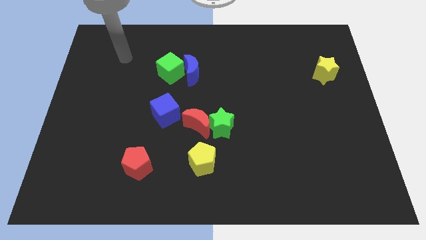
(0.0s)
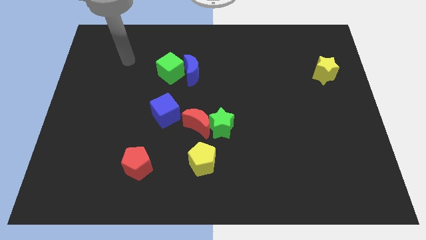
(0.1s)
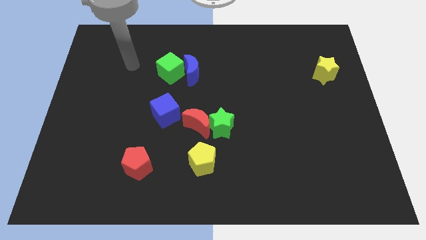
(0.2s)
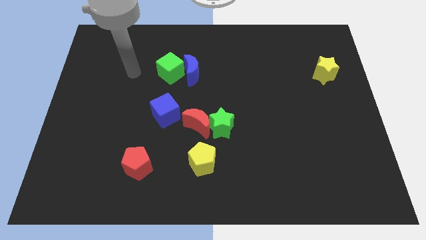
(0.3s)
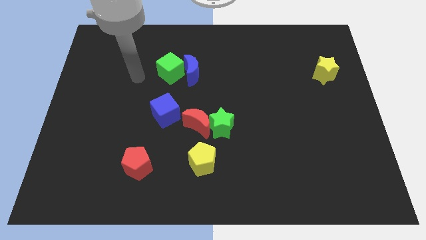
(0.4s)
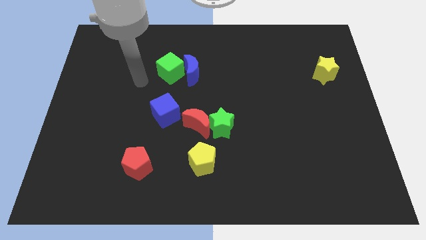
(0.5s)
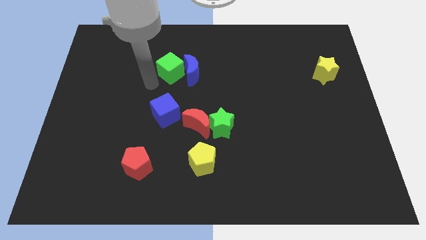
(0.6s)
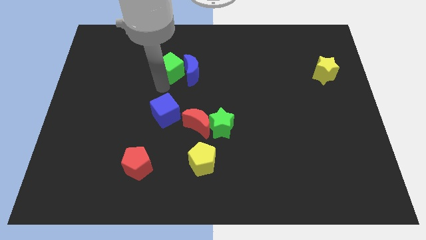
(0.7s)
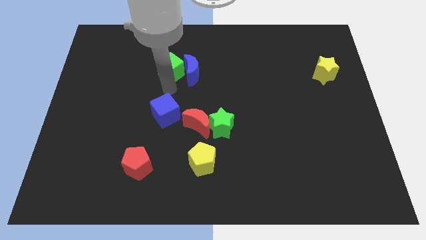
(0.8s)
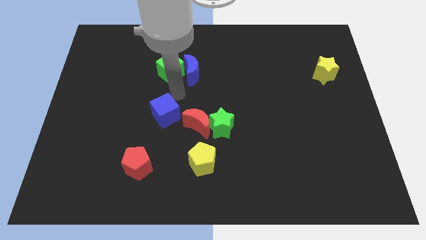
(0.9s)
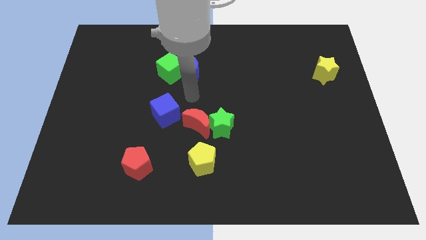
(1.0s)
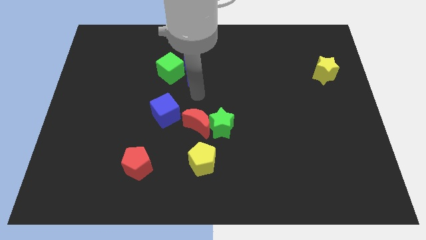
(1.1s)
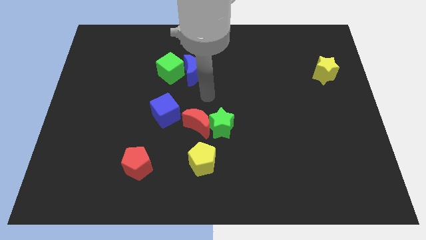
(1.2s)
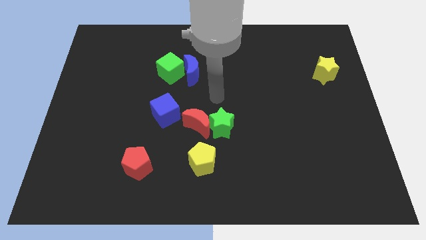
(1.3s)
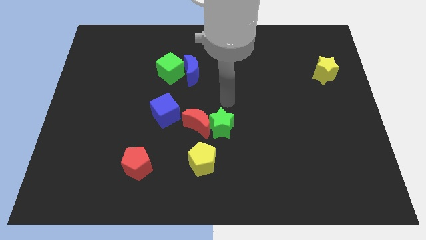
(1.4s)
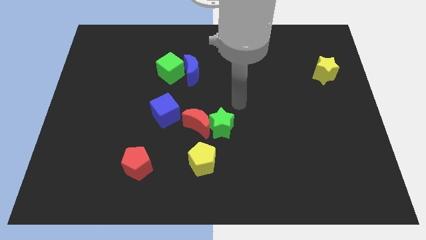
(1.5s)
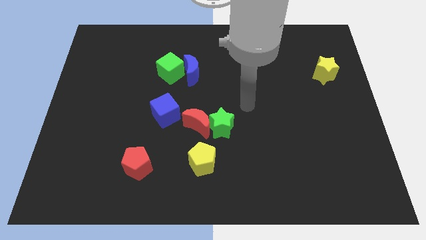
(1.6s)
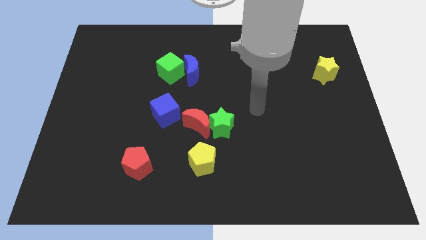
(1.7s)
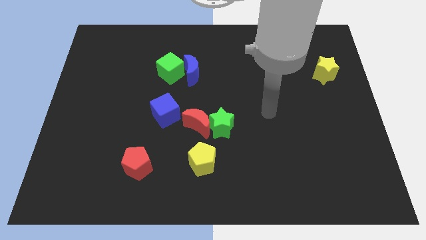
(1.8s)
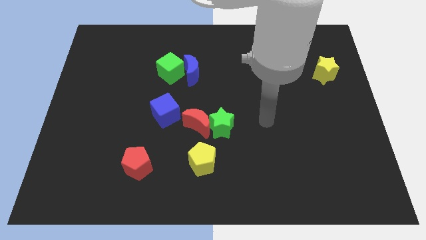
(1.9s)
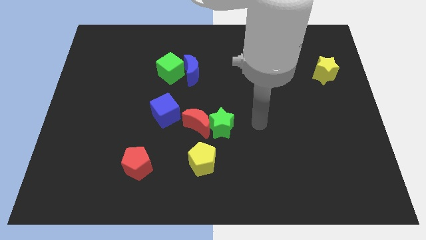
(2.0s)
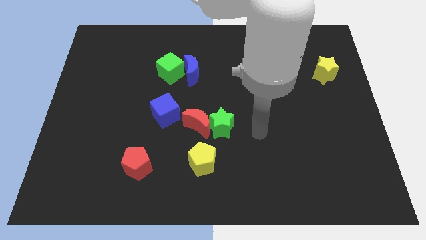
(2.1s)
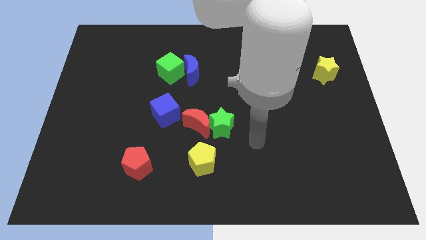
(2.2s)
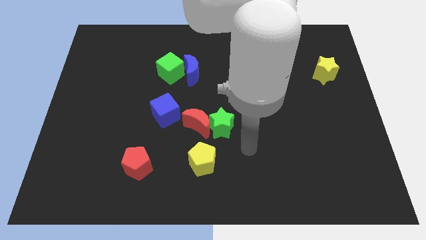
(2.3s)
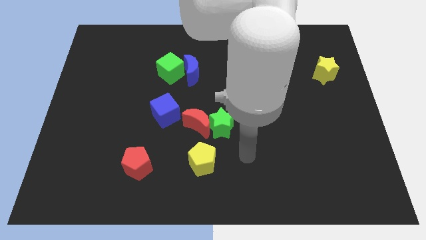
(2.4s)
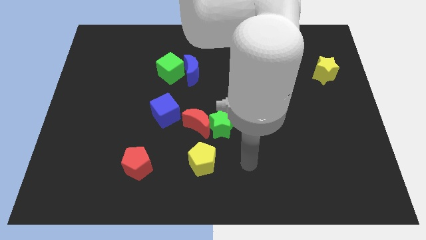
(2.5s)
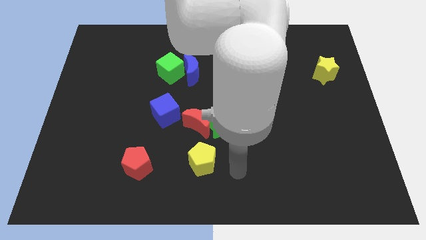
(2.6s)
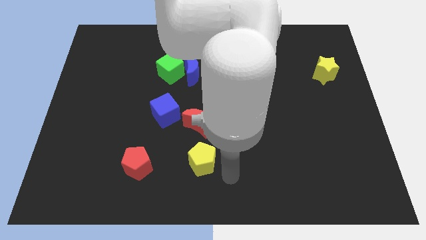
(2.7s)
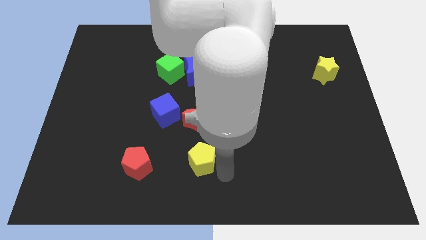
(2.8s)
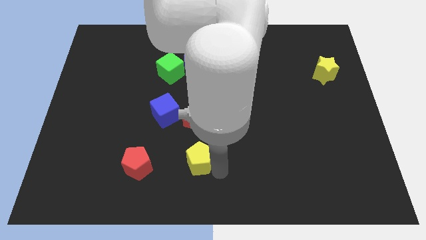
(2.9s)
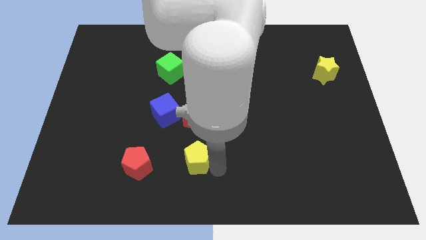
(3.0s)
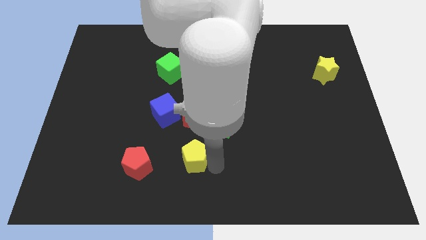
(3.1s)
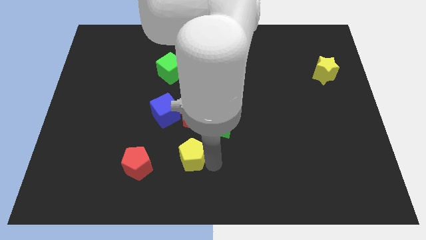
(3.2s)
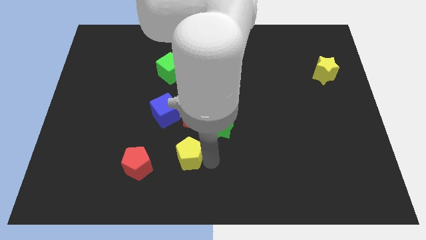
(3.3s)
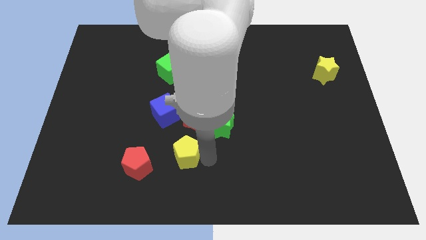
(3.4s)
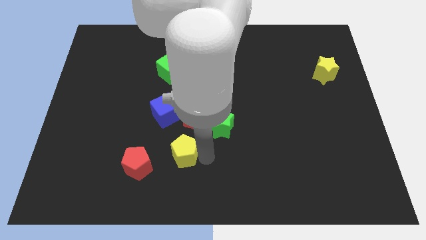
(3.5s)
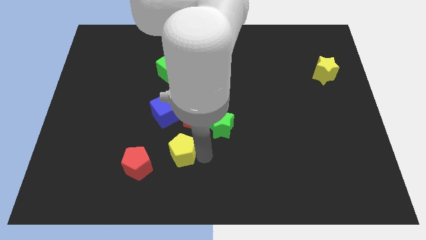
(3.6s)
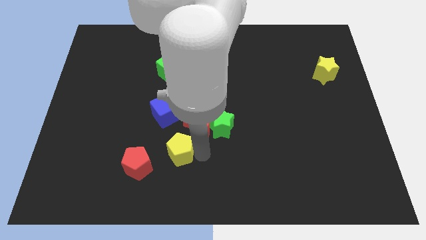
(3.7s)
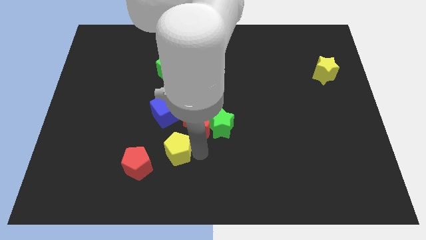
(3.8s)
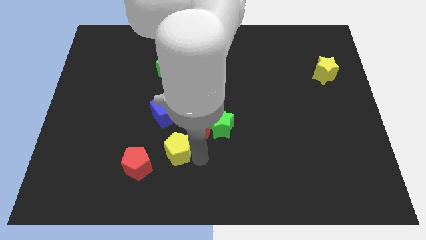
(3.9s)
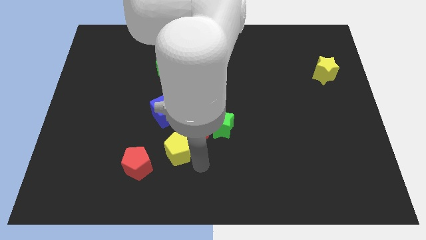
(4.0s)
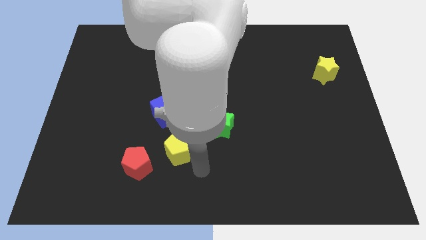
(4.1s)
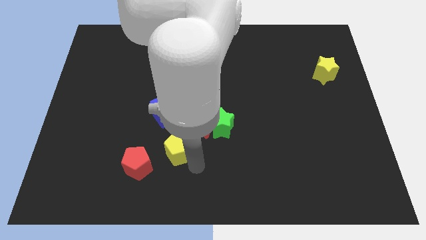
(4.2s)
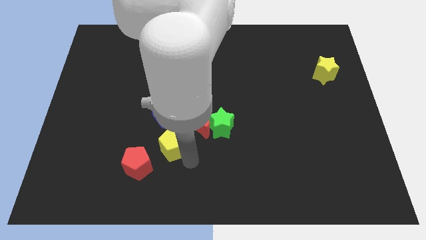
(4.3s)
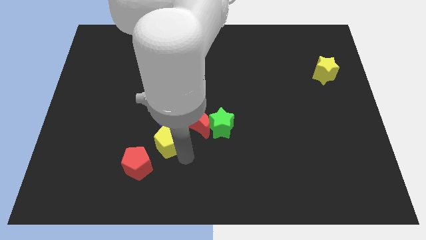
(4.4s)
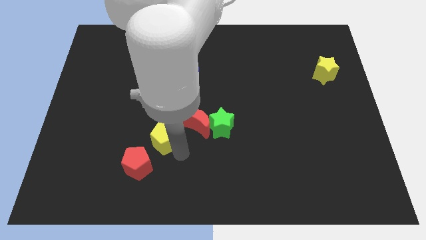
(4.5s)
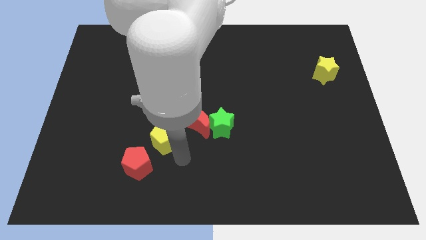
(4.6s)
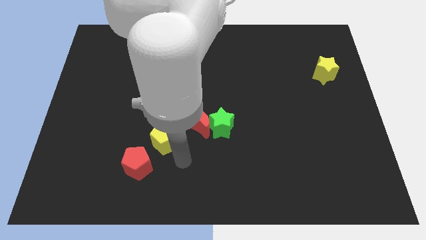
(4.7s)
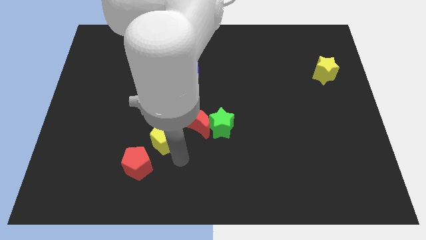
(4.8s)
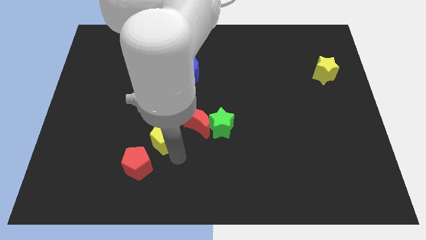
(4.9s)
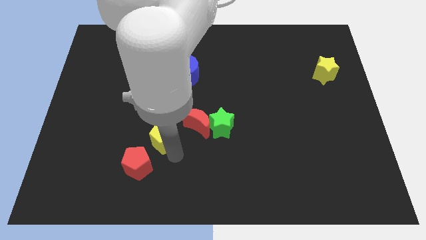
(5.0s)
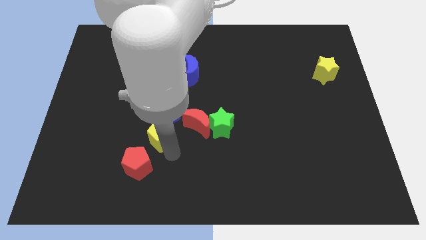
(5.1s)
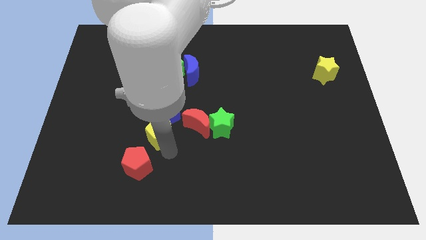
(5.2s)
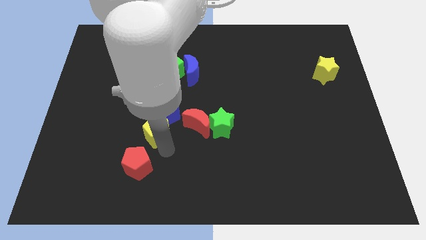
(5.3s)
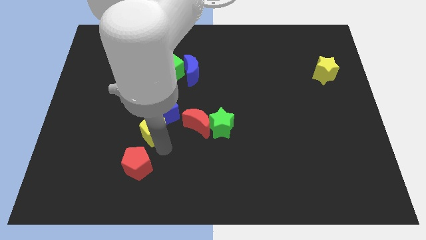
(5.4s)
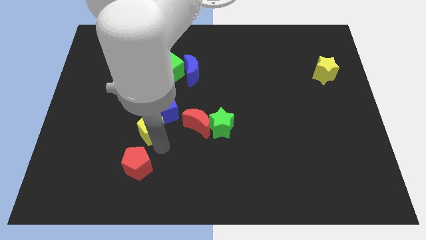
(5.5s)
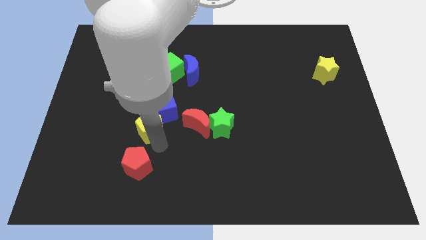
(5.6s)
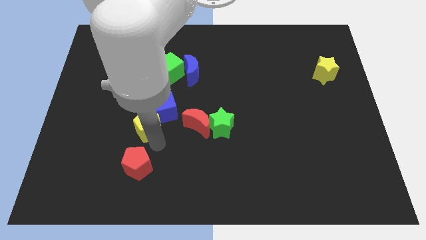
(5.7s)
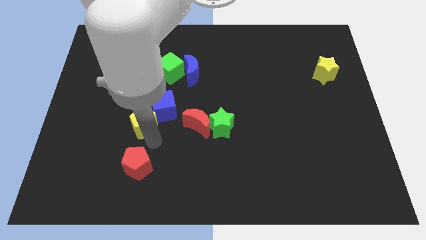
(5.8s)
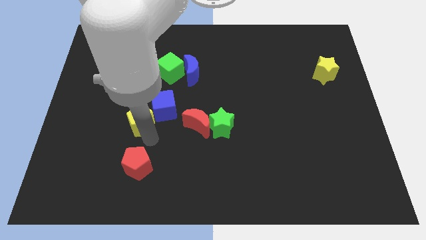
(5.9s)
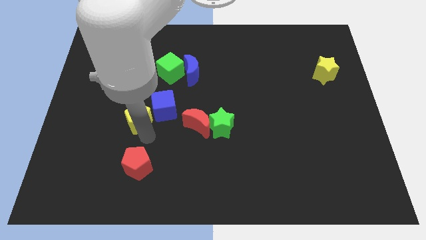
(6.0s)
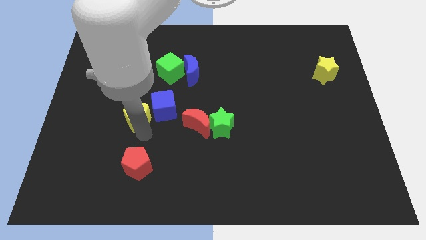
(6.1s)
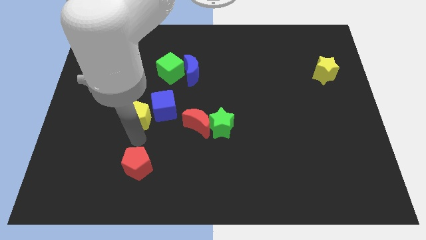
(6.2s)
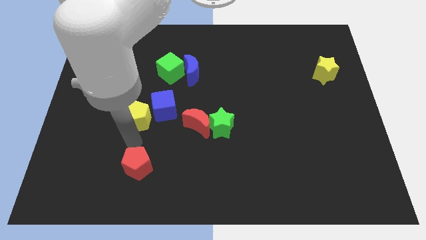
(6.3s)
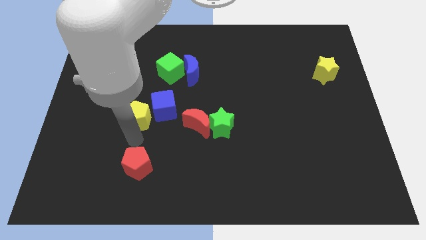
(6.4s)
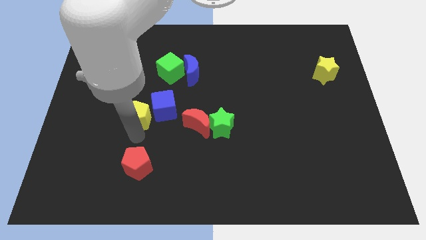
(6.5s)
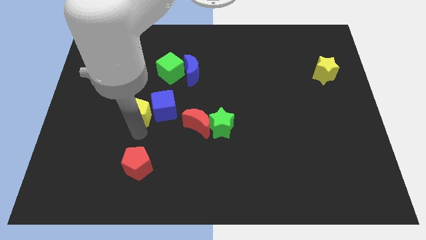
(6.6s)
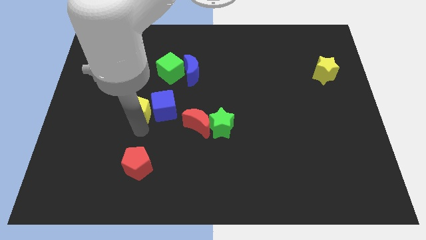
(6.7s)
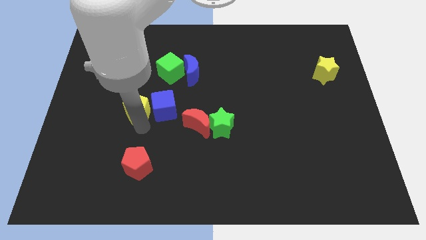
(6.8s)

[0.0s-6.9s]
put the yellow pentagon to the top left side of the blue cube
